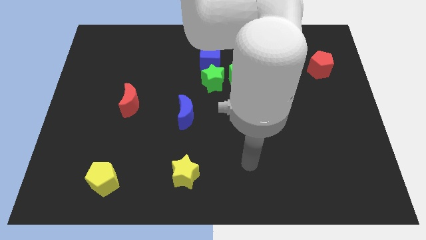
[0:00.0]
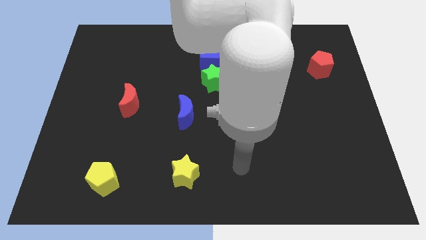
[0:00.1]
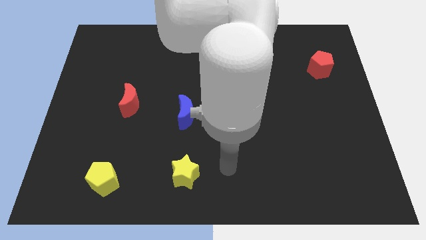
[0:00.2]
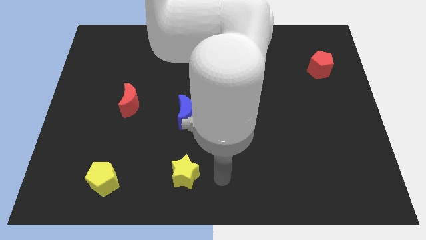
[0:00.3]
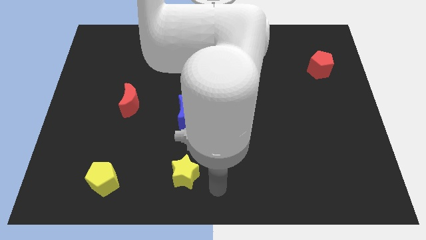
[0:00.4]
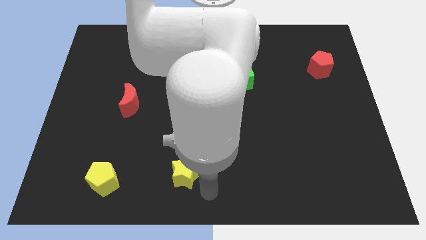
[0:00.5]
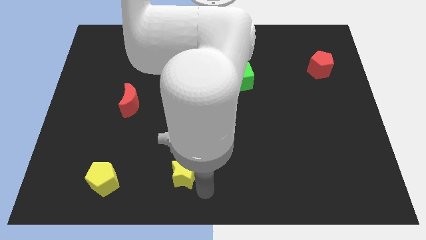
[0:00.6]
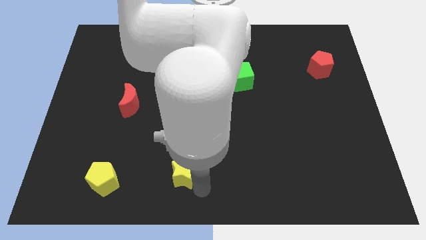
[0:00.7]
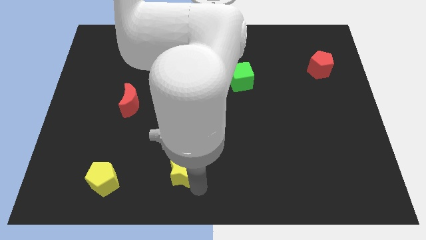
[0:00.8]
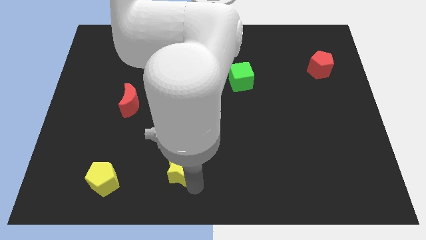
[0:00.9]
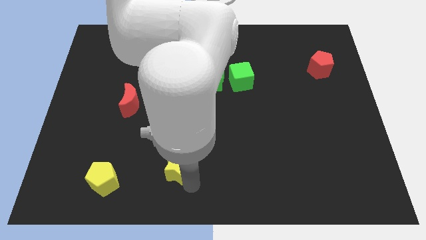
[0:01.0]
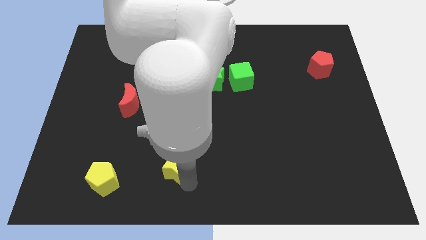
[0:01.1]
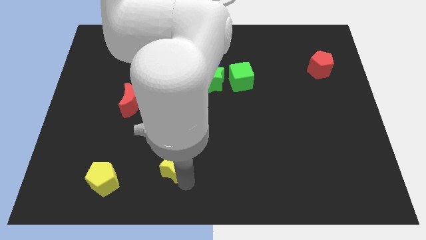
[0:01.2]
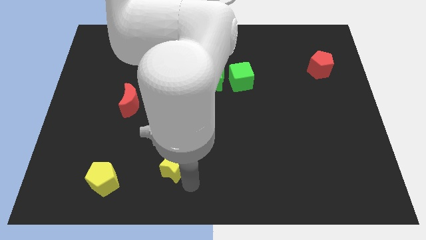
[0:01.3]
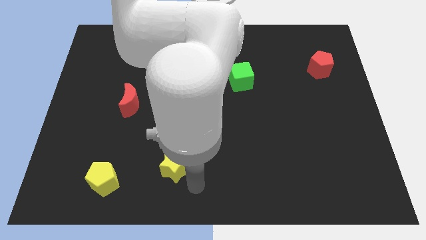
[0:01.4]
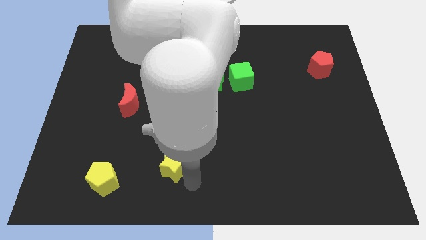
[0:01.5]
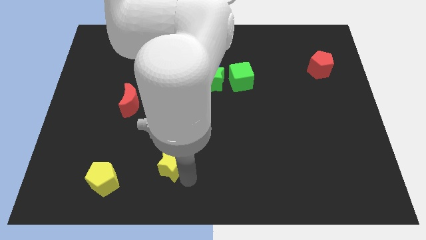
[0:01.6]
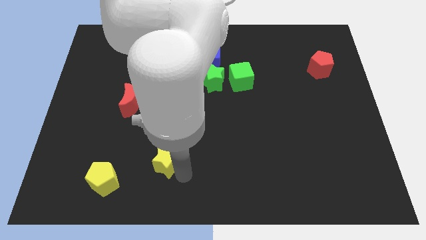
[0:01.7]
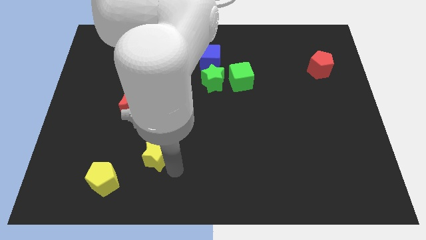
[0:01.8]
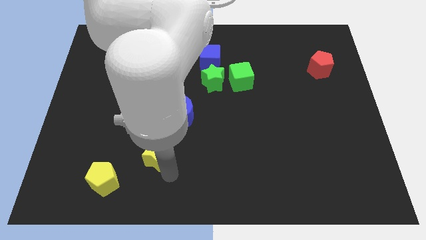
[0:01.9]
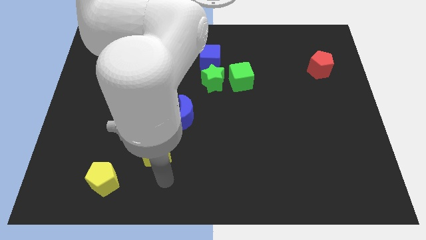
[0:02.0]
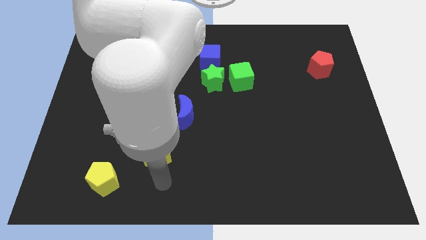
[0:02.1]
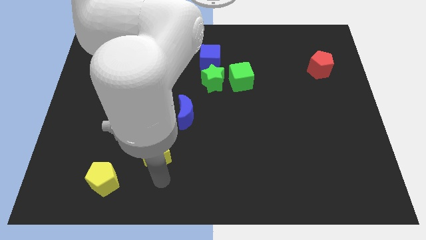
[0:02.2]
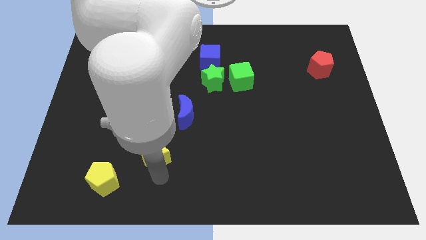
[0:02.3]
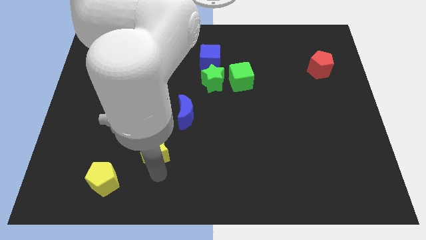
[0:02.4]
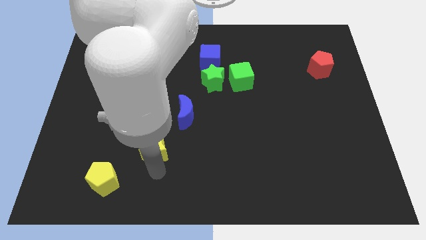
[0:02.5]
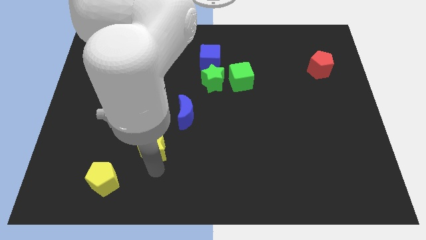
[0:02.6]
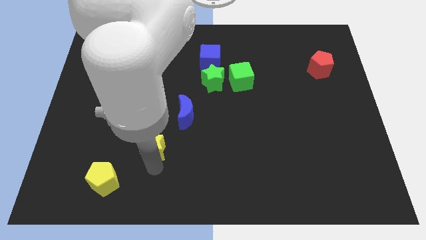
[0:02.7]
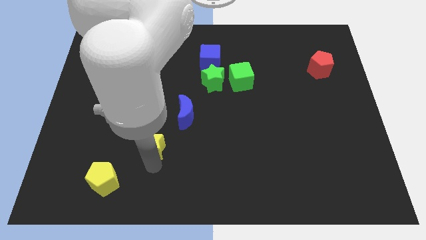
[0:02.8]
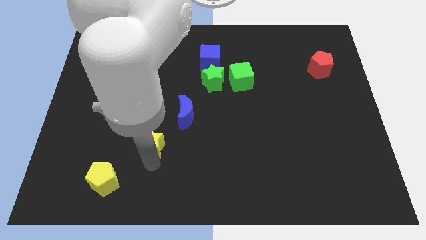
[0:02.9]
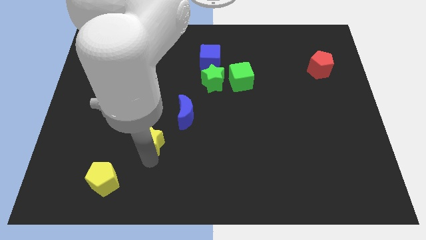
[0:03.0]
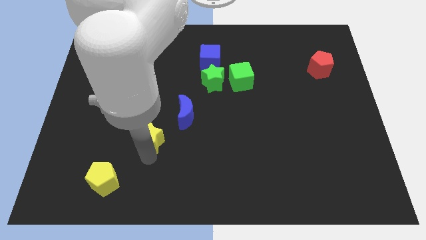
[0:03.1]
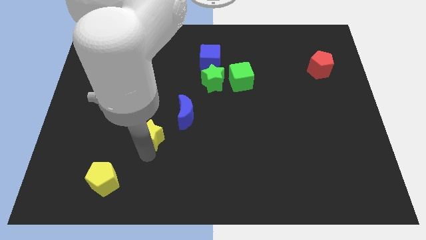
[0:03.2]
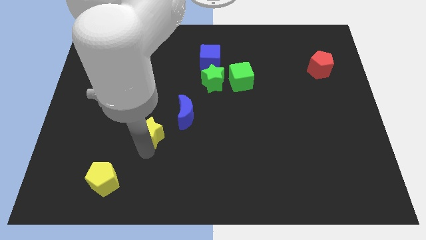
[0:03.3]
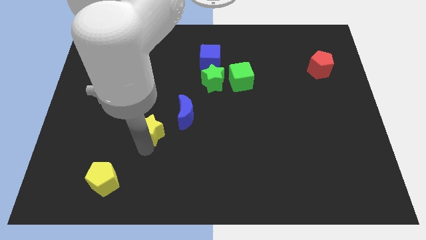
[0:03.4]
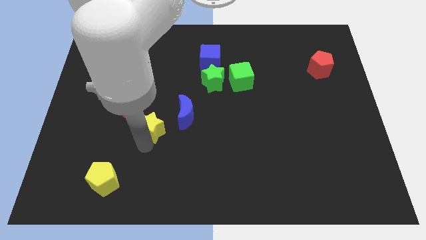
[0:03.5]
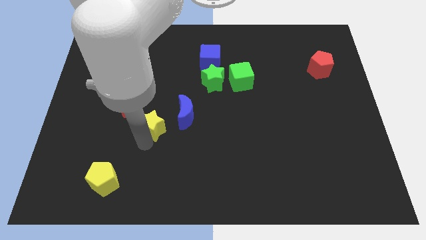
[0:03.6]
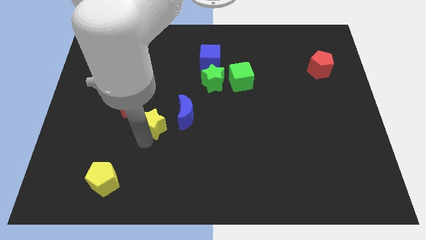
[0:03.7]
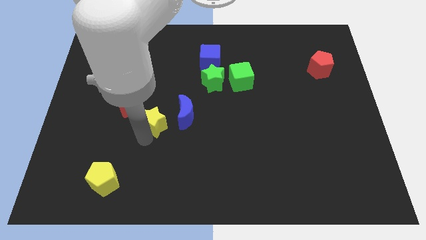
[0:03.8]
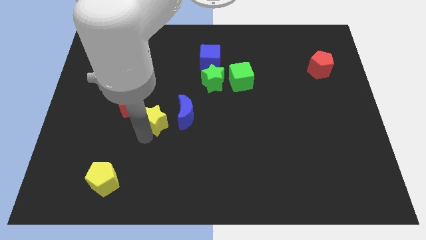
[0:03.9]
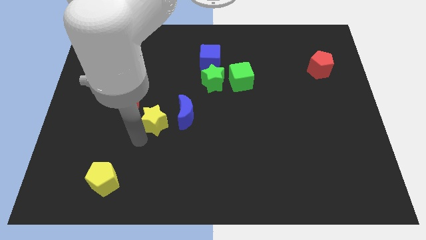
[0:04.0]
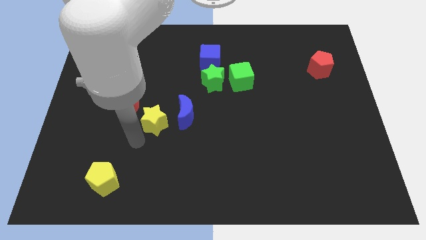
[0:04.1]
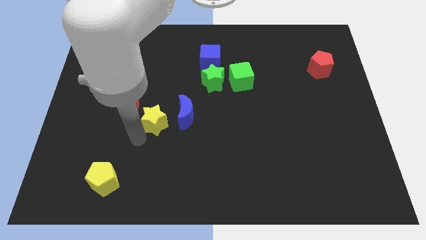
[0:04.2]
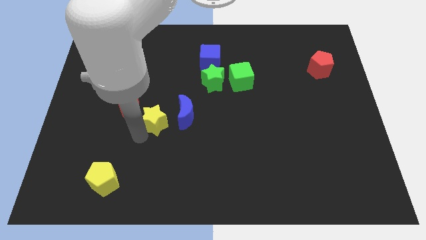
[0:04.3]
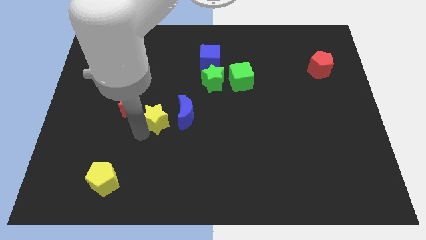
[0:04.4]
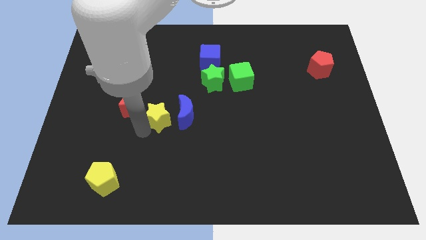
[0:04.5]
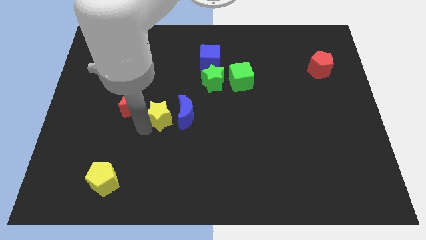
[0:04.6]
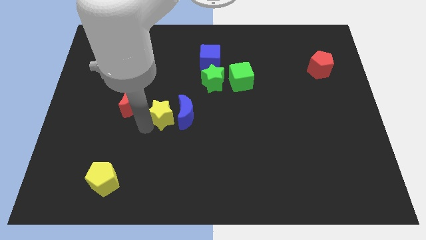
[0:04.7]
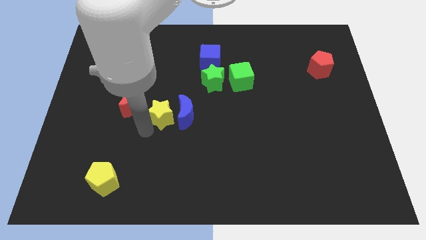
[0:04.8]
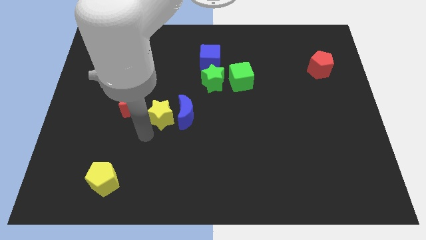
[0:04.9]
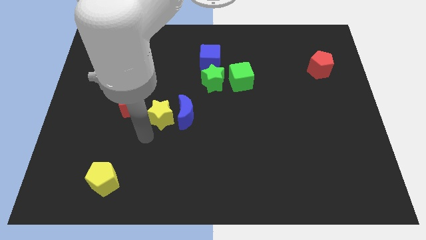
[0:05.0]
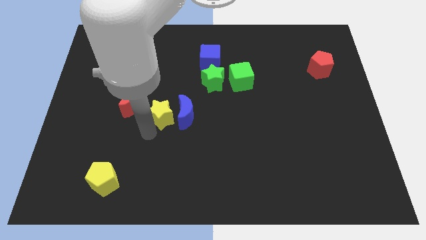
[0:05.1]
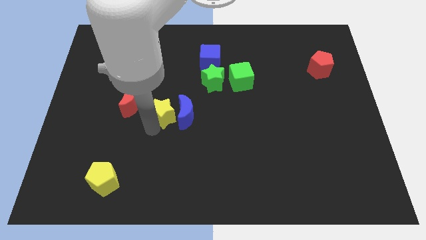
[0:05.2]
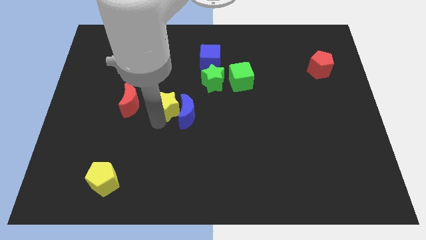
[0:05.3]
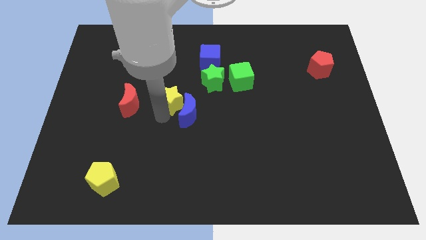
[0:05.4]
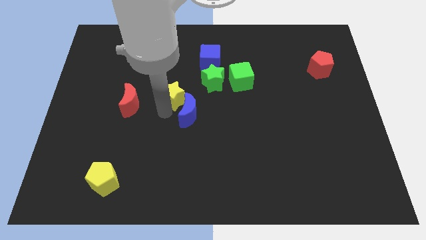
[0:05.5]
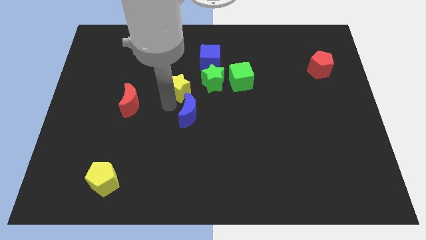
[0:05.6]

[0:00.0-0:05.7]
put the yellow star diagonally down and to the left of the blue cube

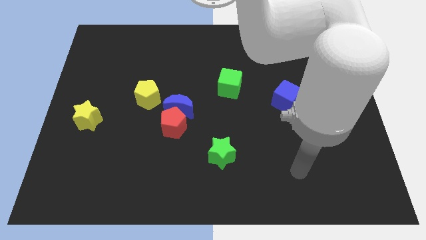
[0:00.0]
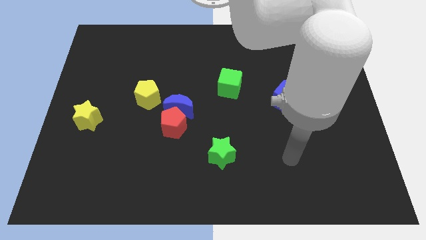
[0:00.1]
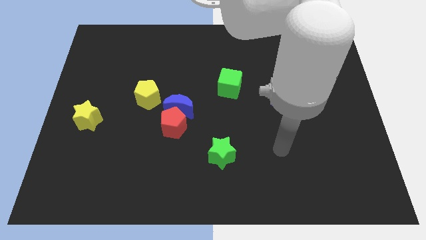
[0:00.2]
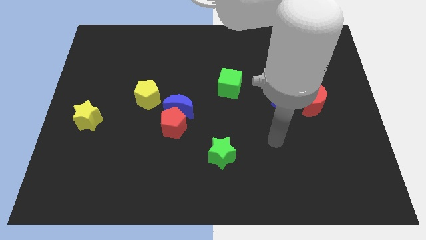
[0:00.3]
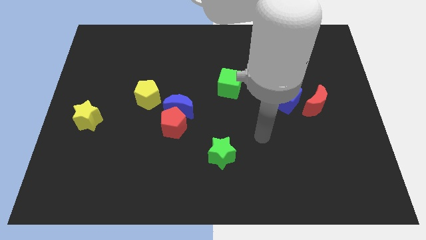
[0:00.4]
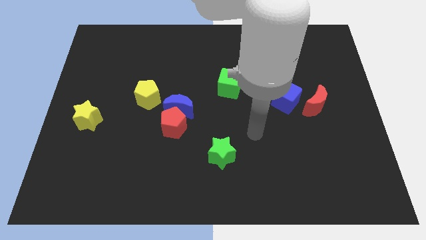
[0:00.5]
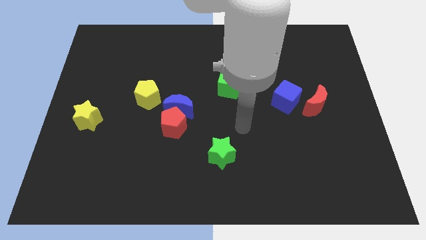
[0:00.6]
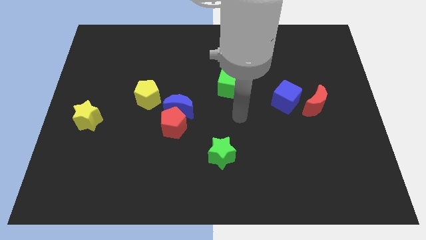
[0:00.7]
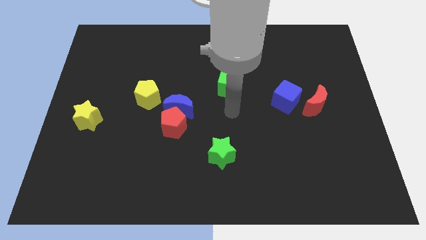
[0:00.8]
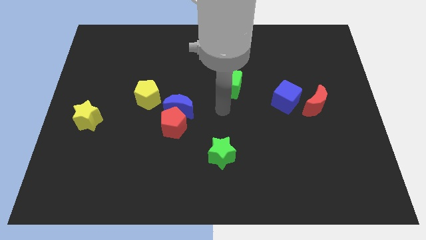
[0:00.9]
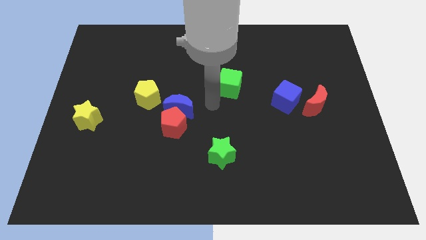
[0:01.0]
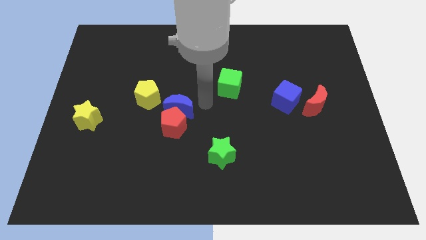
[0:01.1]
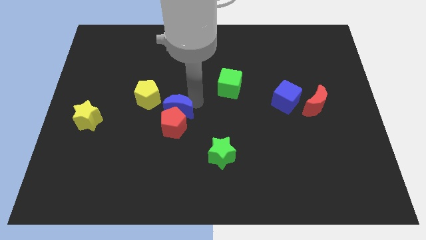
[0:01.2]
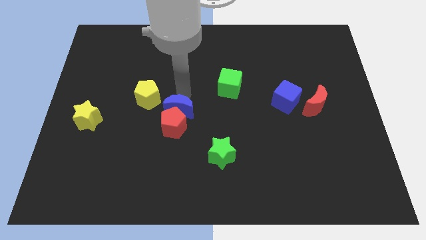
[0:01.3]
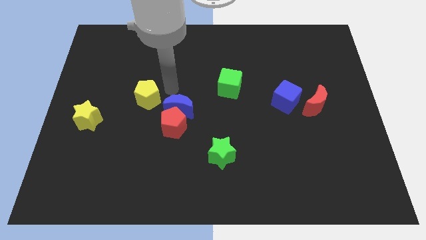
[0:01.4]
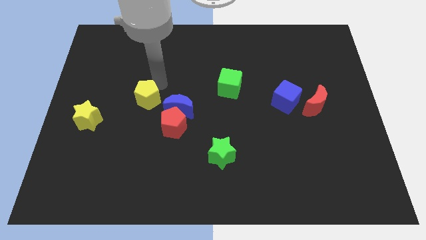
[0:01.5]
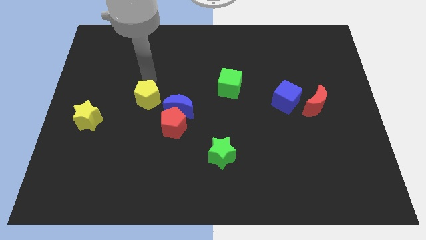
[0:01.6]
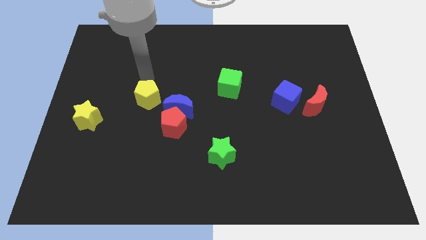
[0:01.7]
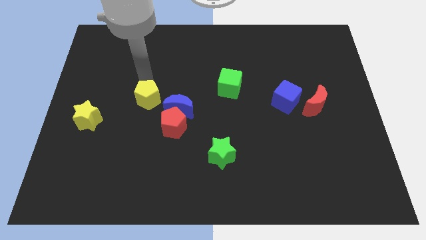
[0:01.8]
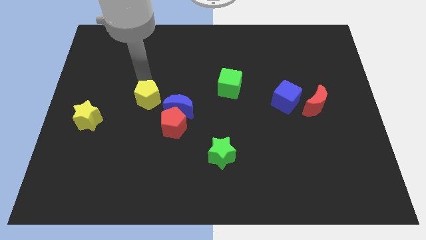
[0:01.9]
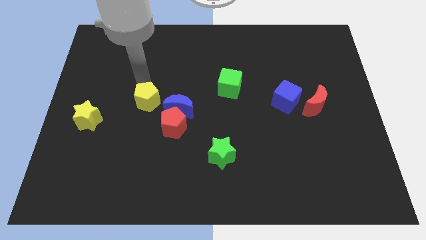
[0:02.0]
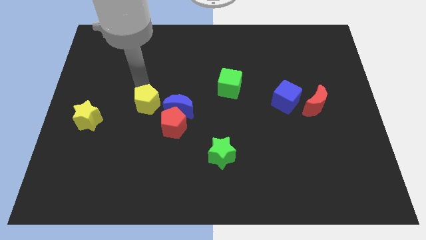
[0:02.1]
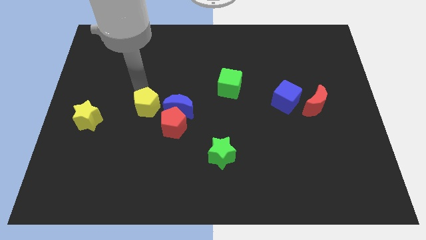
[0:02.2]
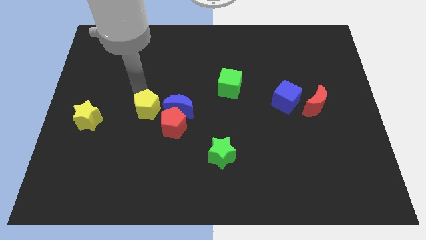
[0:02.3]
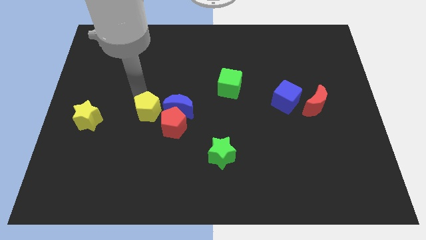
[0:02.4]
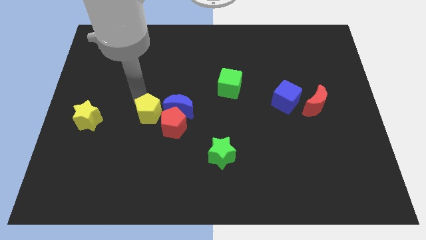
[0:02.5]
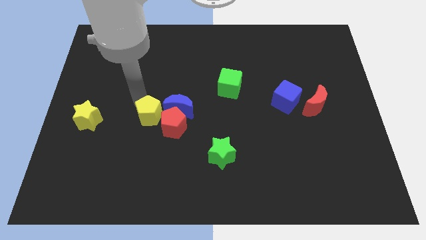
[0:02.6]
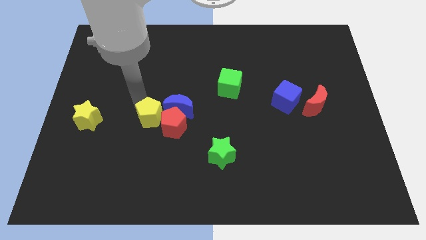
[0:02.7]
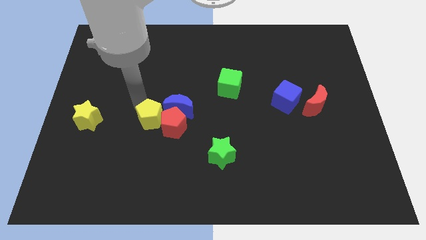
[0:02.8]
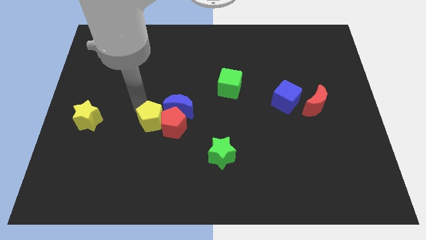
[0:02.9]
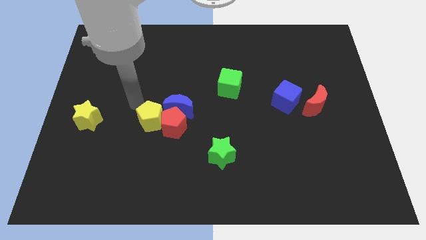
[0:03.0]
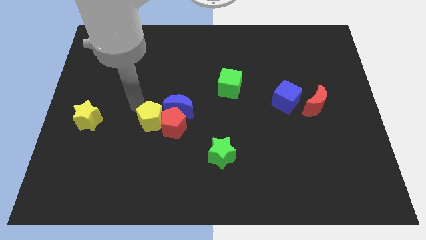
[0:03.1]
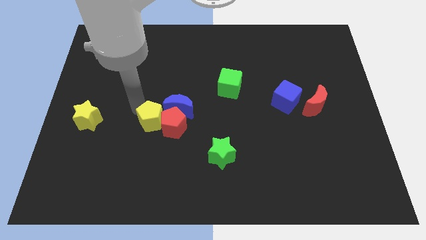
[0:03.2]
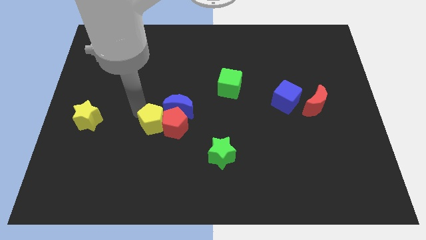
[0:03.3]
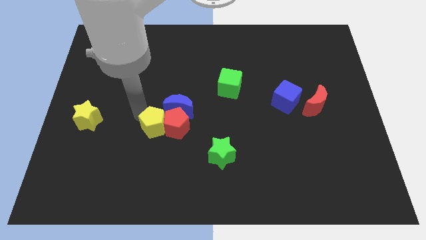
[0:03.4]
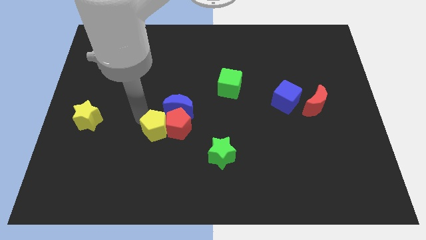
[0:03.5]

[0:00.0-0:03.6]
move the yellow pentagon to the bottom of the blue moon
